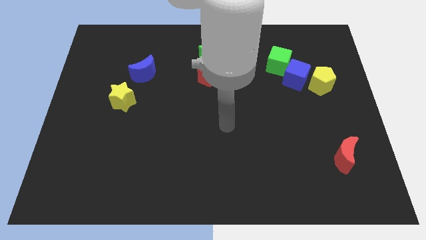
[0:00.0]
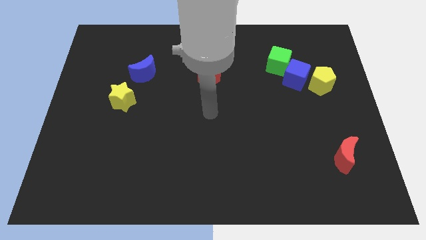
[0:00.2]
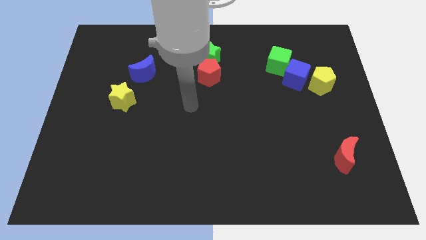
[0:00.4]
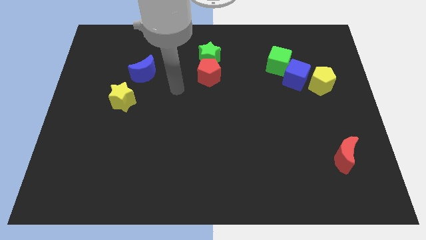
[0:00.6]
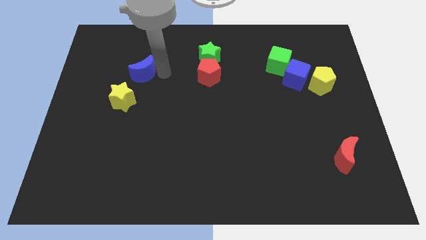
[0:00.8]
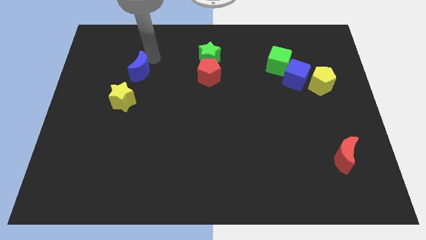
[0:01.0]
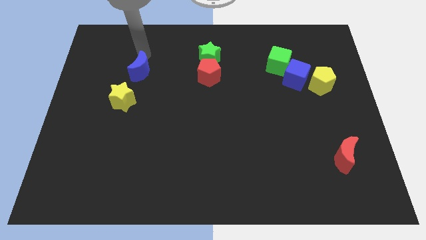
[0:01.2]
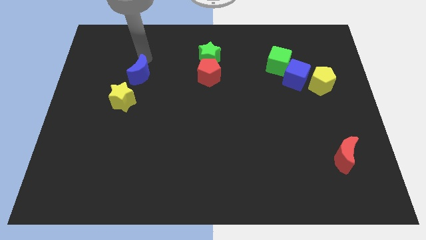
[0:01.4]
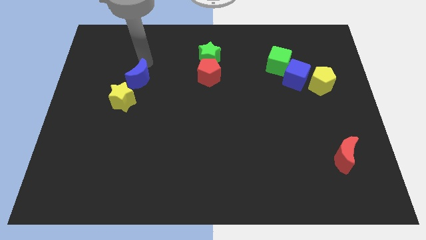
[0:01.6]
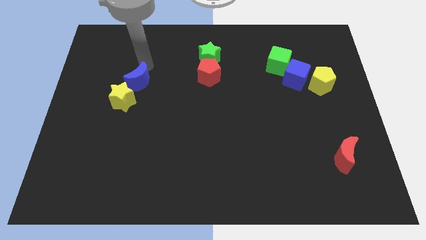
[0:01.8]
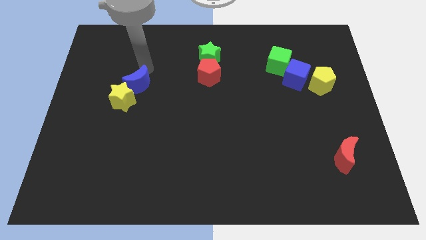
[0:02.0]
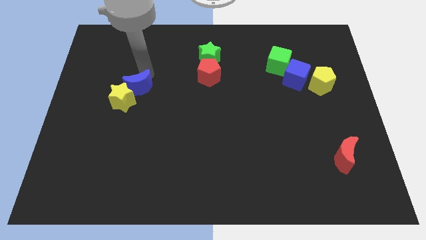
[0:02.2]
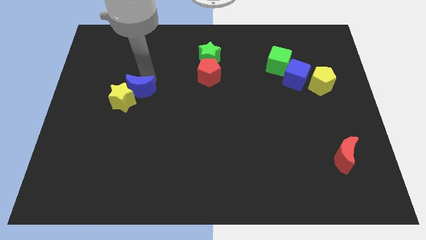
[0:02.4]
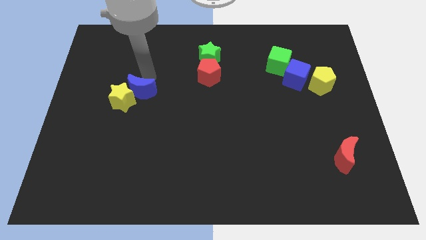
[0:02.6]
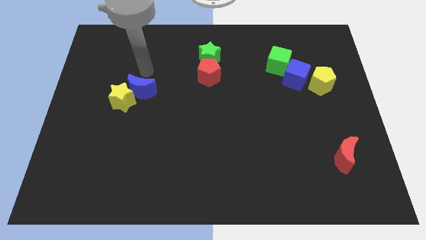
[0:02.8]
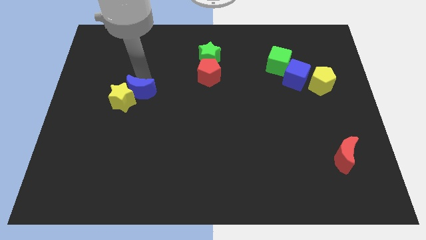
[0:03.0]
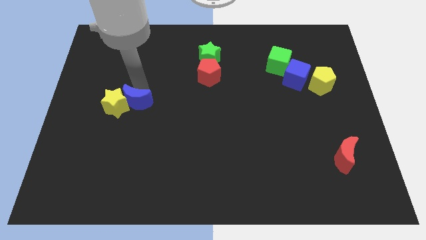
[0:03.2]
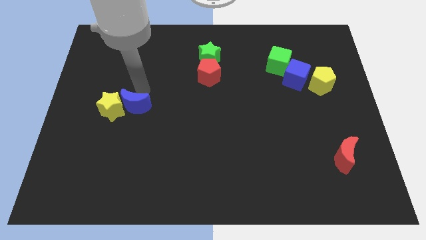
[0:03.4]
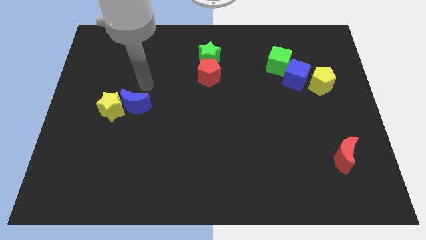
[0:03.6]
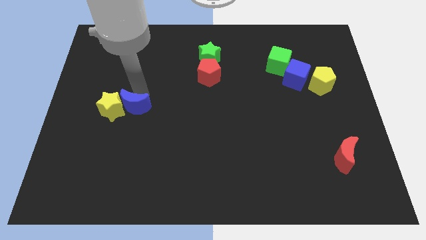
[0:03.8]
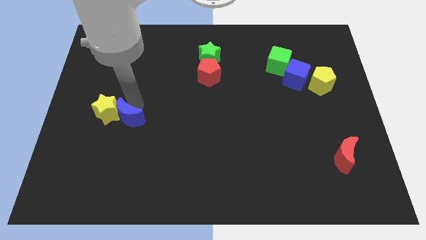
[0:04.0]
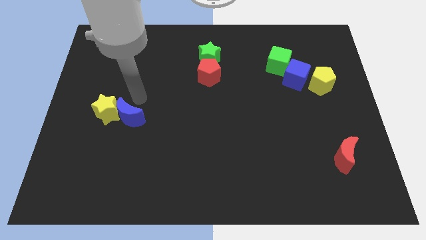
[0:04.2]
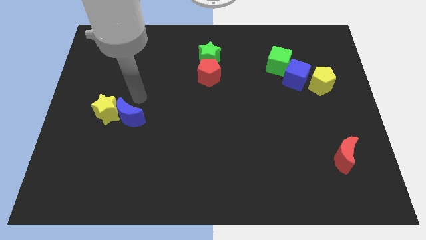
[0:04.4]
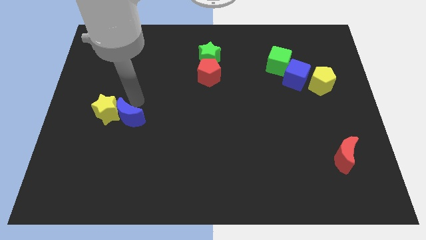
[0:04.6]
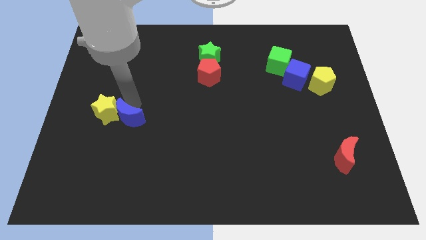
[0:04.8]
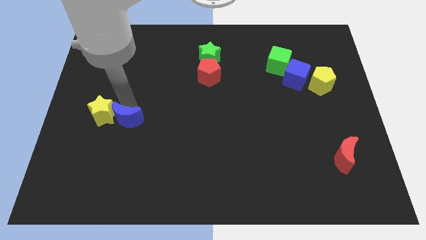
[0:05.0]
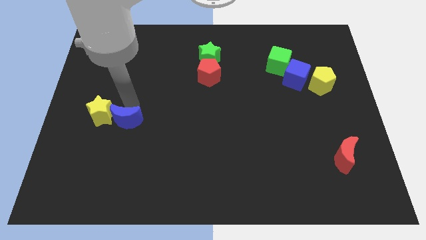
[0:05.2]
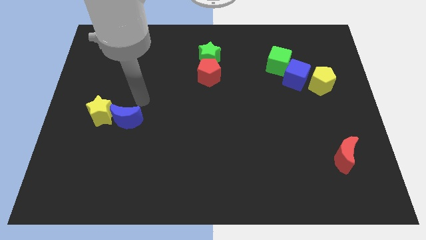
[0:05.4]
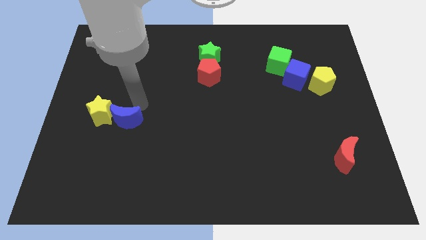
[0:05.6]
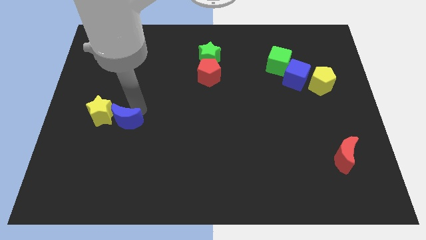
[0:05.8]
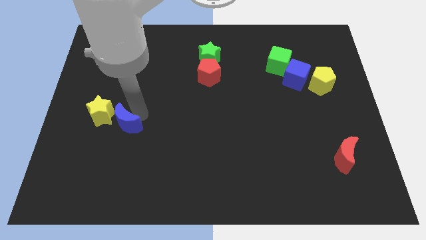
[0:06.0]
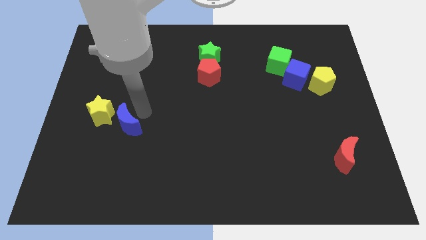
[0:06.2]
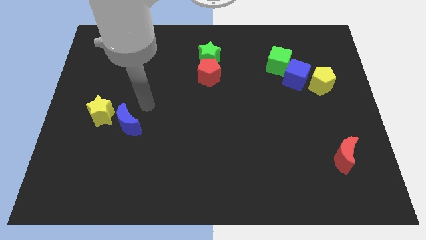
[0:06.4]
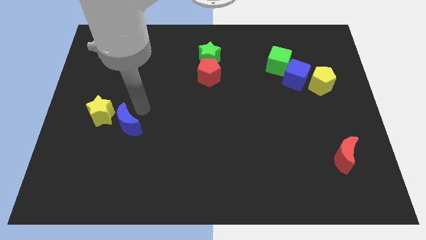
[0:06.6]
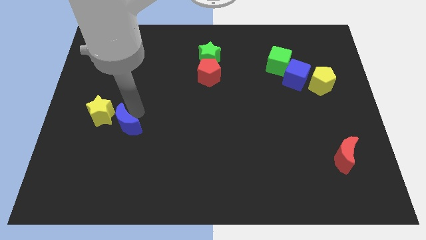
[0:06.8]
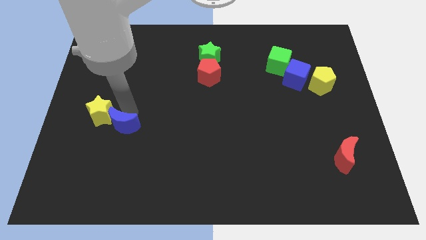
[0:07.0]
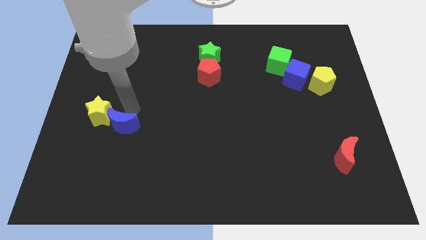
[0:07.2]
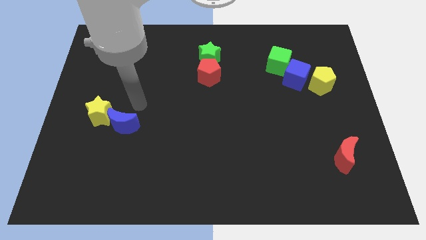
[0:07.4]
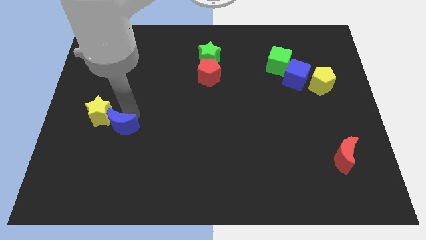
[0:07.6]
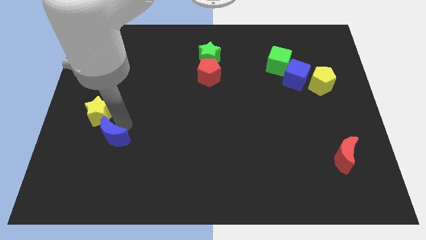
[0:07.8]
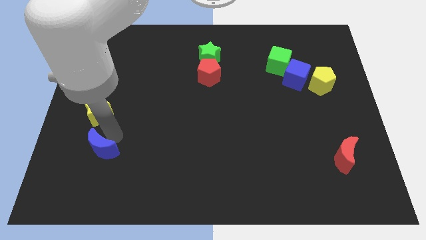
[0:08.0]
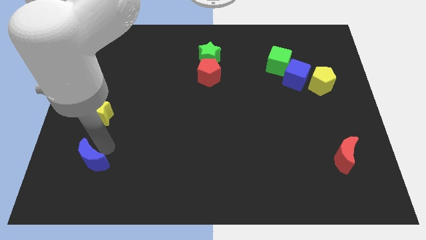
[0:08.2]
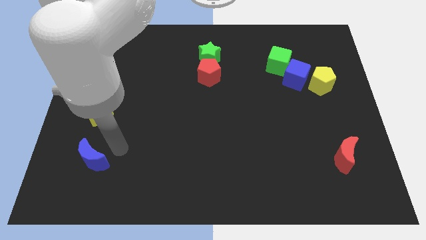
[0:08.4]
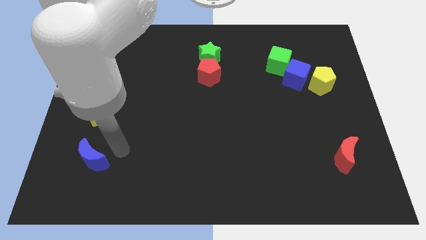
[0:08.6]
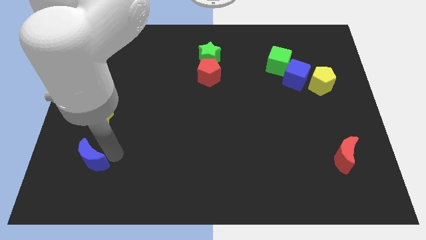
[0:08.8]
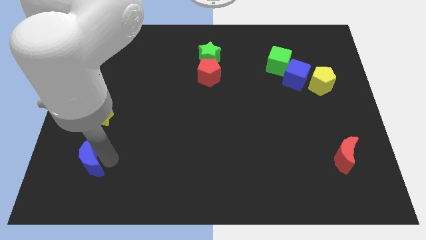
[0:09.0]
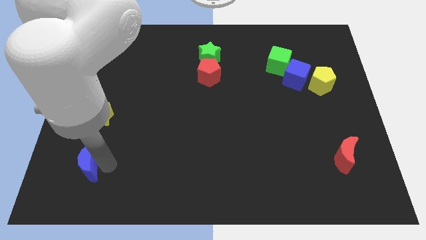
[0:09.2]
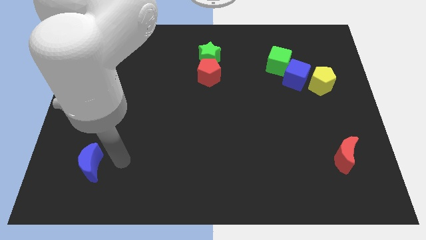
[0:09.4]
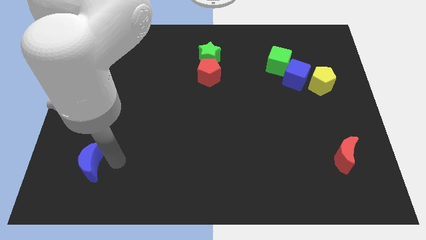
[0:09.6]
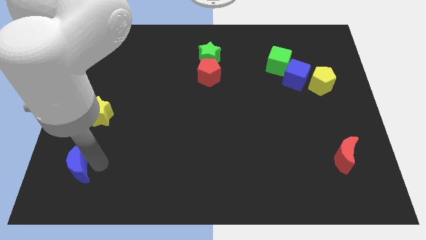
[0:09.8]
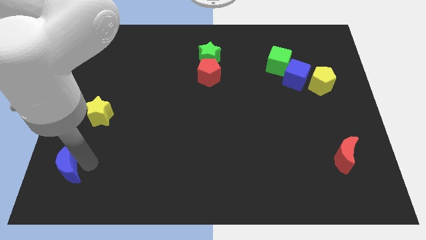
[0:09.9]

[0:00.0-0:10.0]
put the blue moon to the bottom left of the board

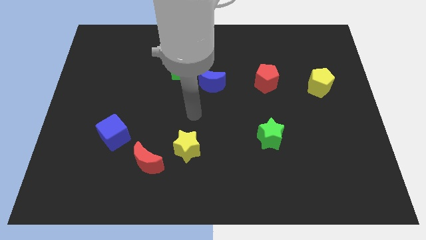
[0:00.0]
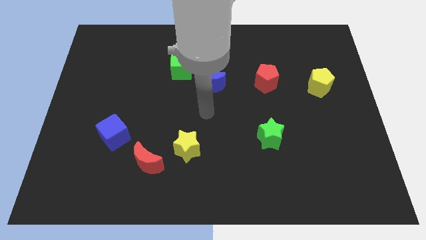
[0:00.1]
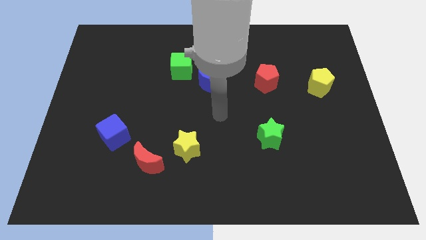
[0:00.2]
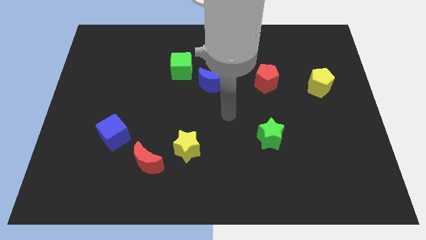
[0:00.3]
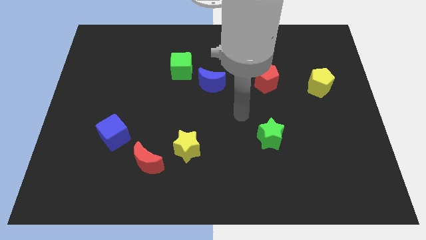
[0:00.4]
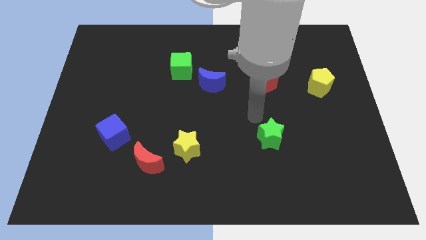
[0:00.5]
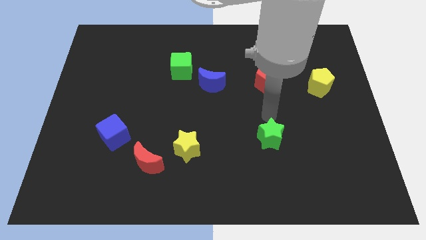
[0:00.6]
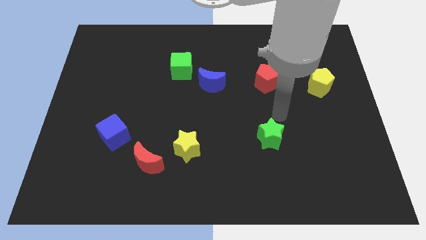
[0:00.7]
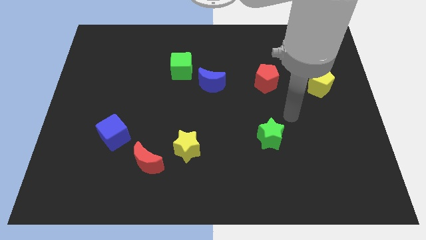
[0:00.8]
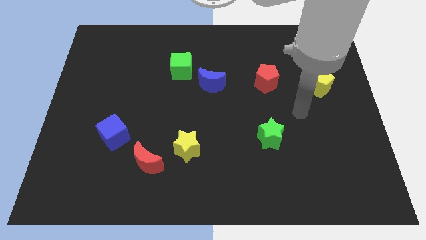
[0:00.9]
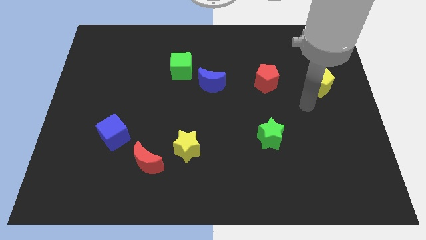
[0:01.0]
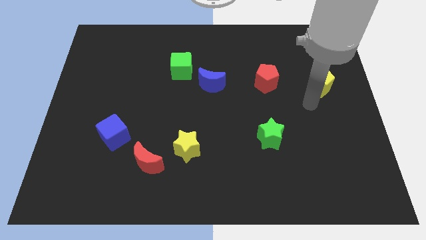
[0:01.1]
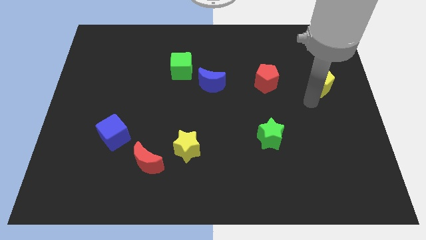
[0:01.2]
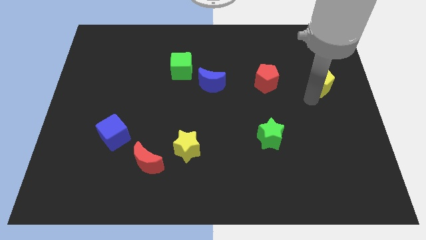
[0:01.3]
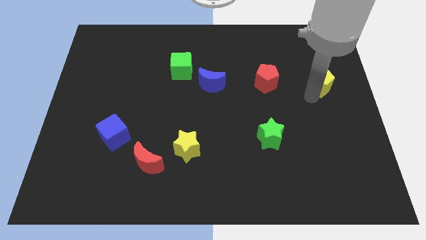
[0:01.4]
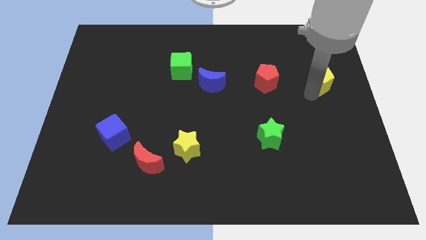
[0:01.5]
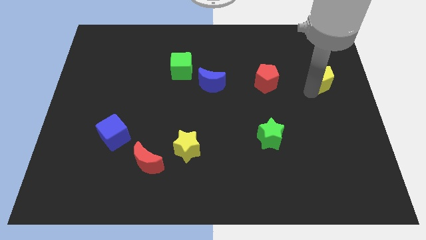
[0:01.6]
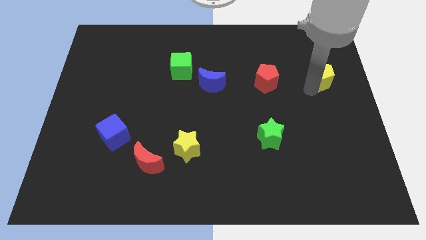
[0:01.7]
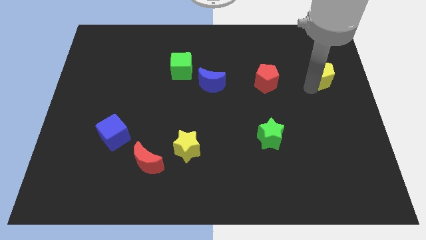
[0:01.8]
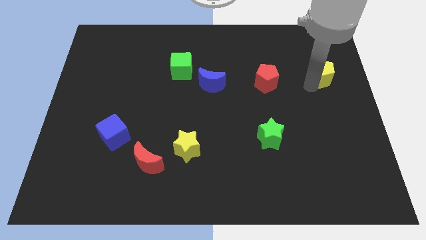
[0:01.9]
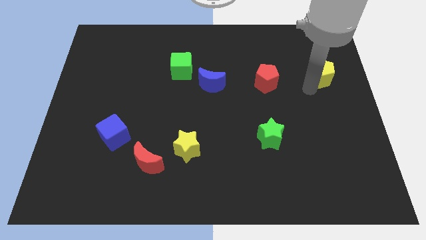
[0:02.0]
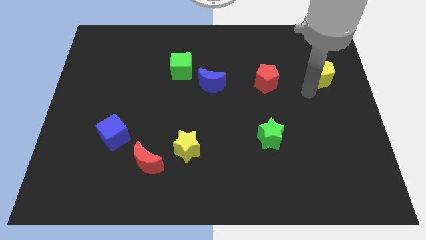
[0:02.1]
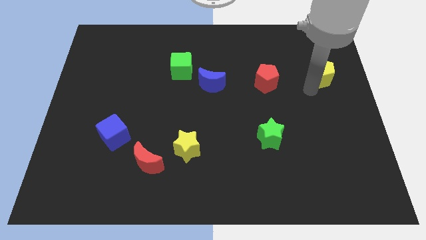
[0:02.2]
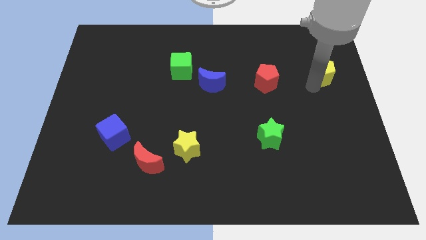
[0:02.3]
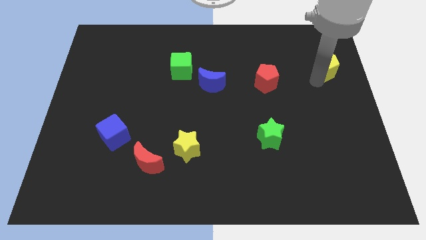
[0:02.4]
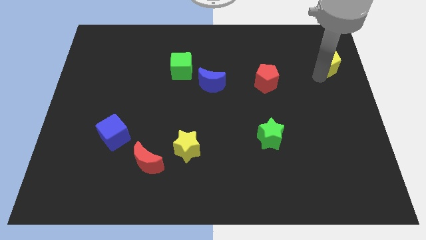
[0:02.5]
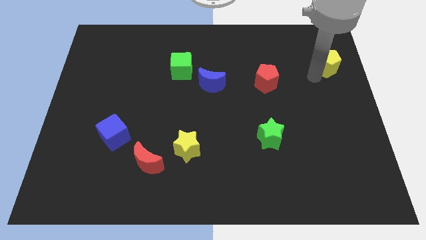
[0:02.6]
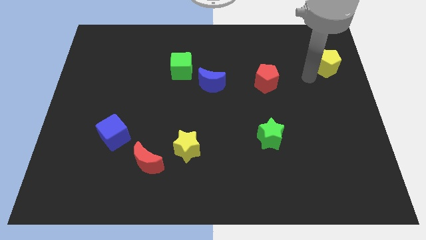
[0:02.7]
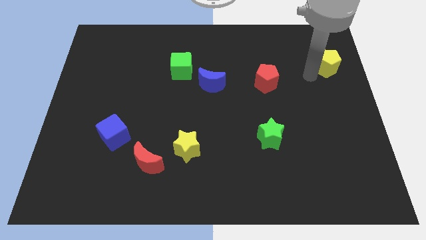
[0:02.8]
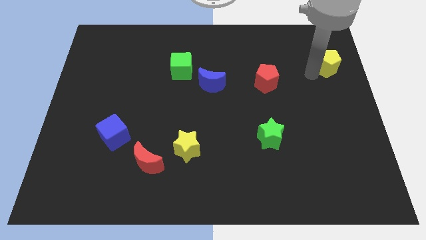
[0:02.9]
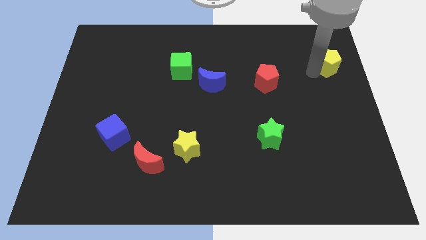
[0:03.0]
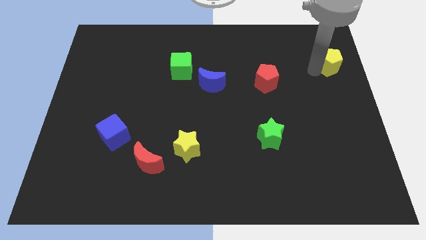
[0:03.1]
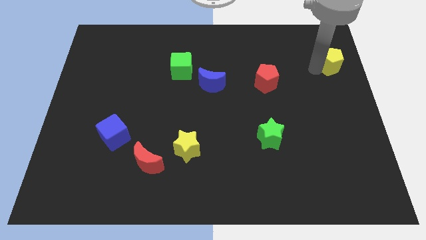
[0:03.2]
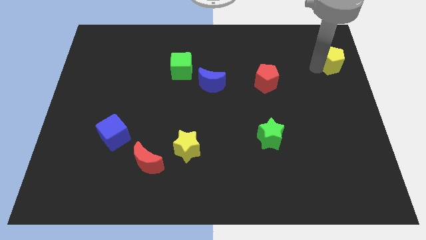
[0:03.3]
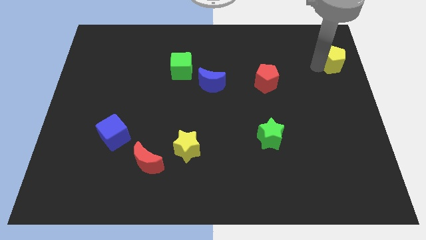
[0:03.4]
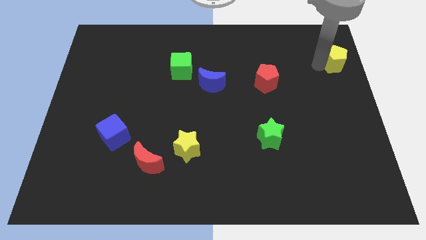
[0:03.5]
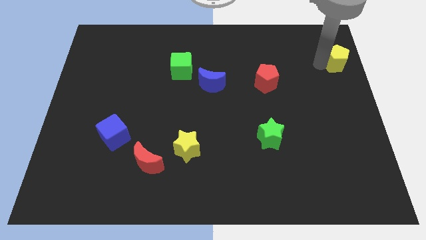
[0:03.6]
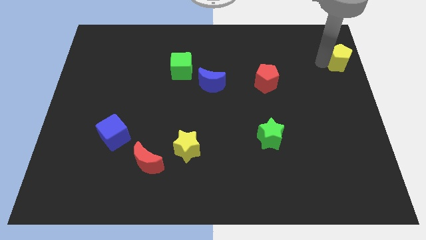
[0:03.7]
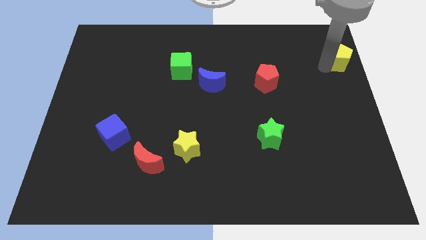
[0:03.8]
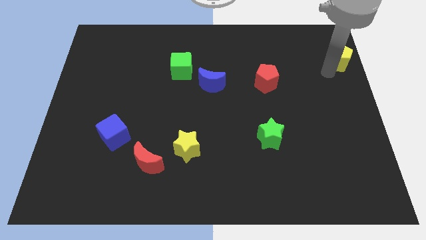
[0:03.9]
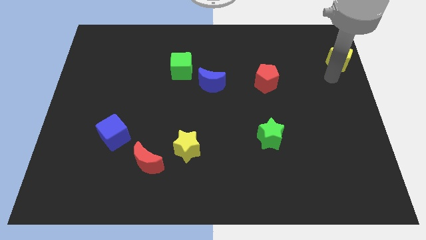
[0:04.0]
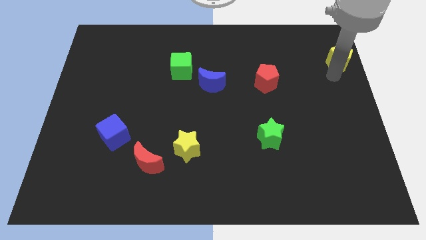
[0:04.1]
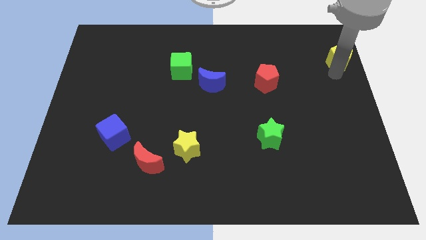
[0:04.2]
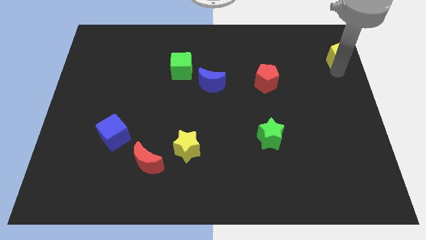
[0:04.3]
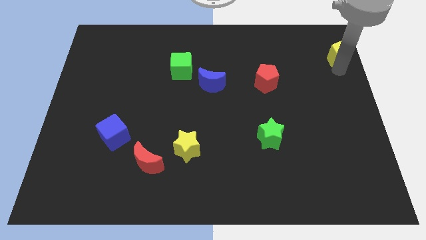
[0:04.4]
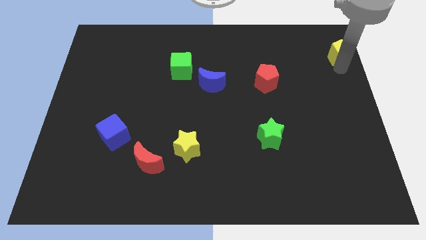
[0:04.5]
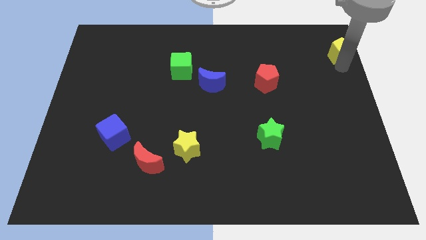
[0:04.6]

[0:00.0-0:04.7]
push the yellow pentagon to the upper right corner
